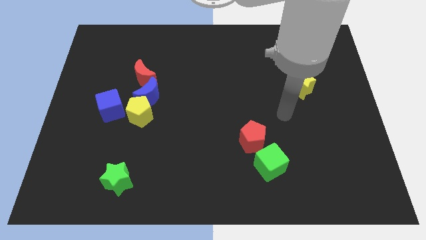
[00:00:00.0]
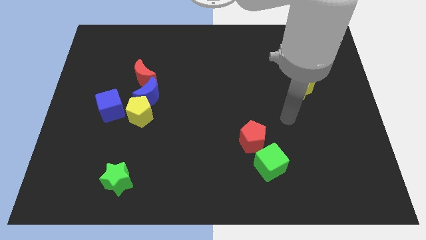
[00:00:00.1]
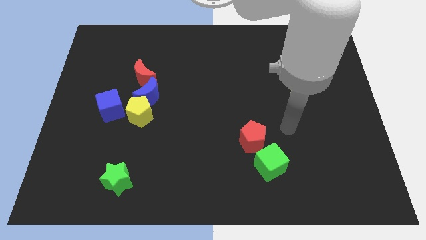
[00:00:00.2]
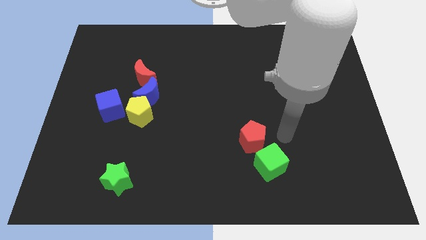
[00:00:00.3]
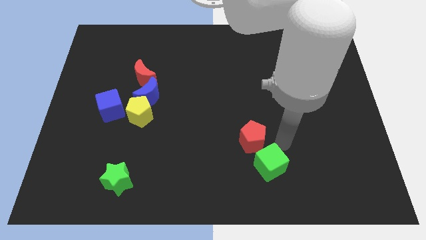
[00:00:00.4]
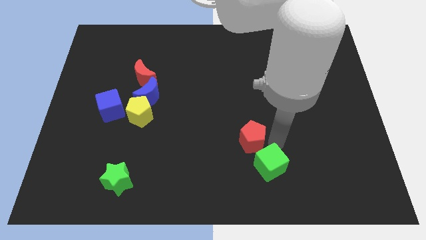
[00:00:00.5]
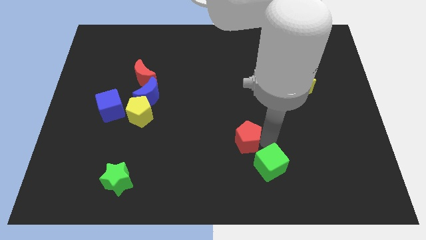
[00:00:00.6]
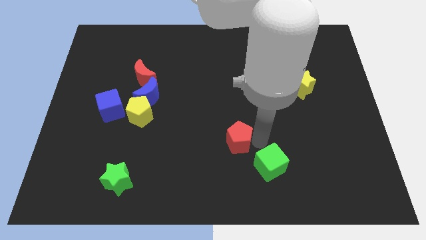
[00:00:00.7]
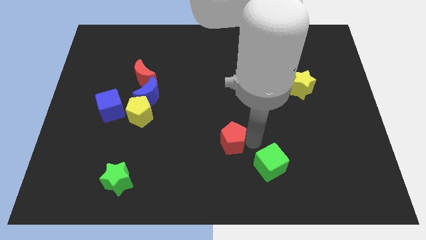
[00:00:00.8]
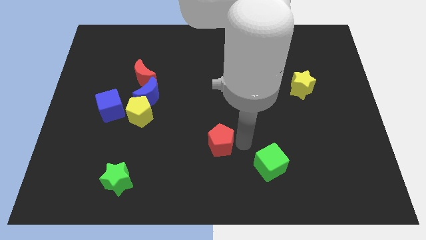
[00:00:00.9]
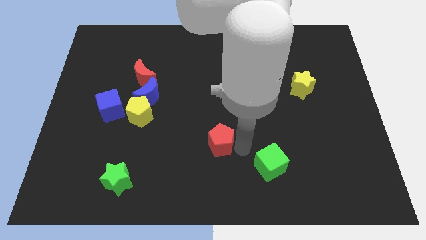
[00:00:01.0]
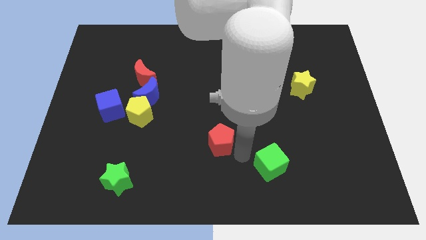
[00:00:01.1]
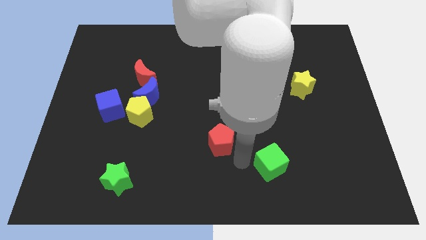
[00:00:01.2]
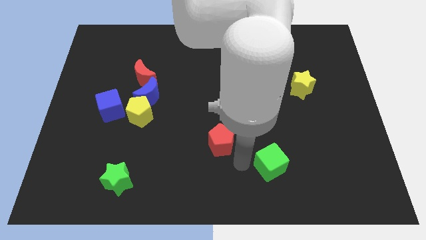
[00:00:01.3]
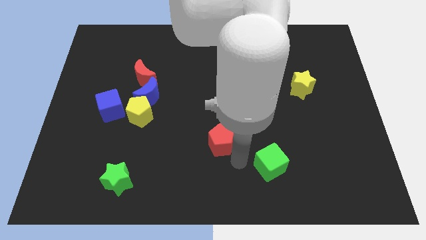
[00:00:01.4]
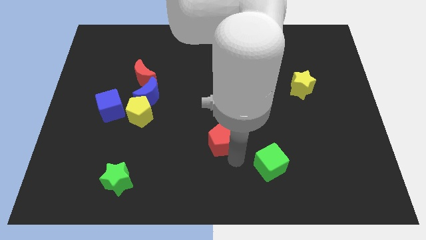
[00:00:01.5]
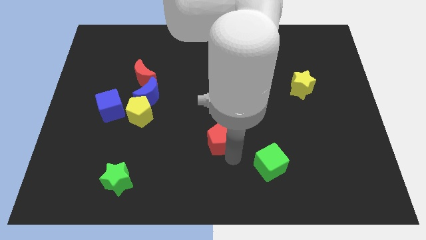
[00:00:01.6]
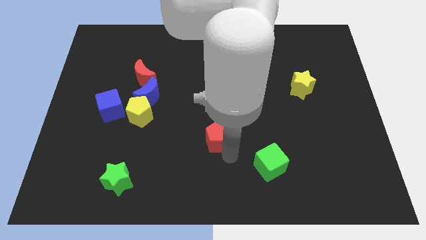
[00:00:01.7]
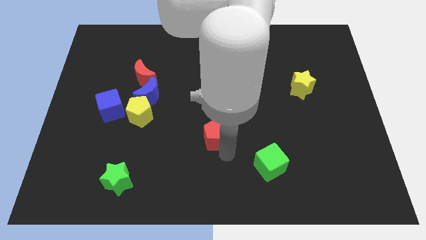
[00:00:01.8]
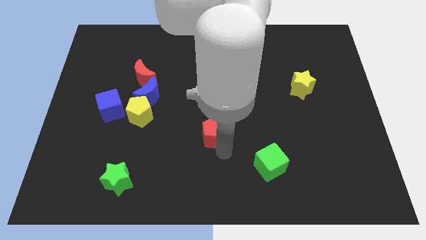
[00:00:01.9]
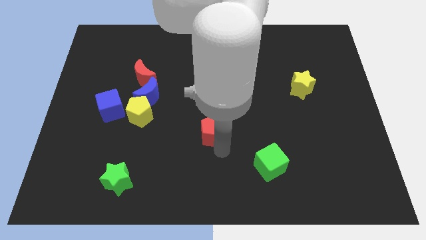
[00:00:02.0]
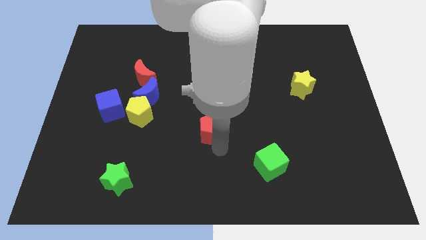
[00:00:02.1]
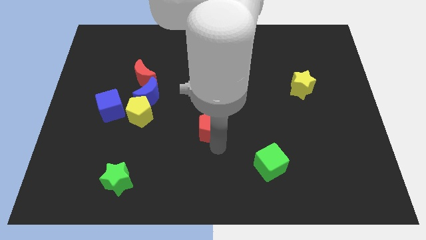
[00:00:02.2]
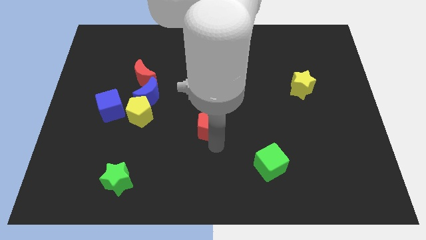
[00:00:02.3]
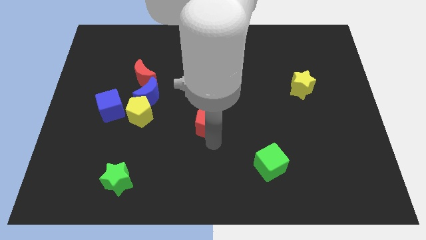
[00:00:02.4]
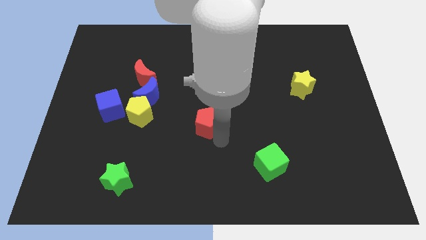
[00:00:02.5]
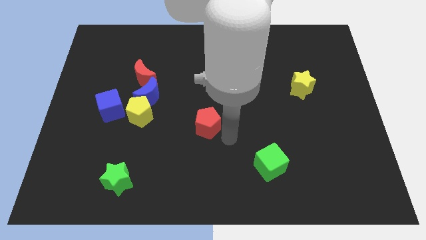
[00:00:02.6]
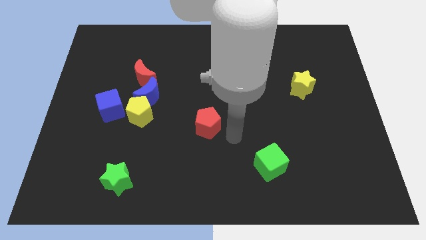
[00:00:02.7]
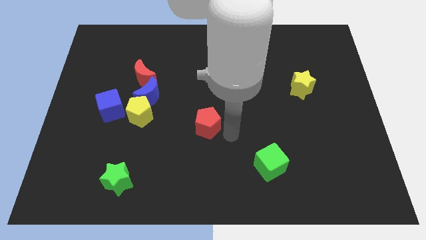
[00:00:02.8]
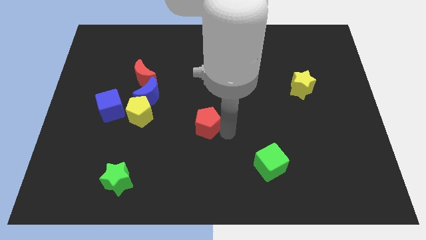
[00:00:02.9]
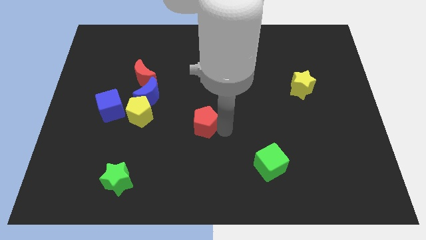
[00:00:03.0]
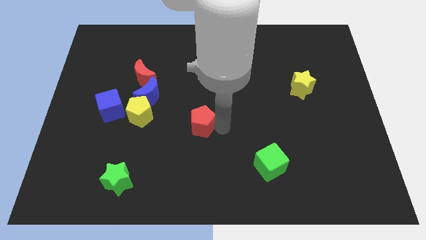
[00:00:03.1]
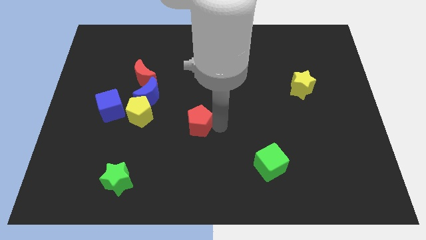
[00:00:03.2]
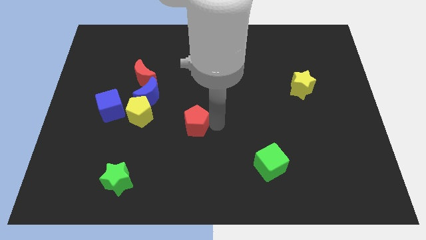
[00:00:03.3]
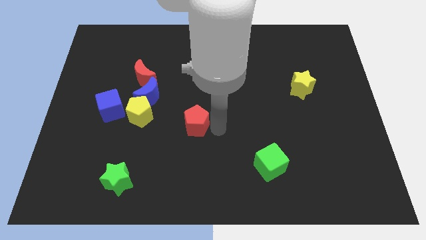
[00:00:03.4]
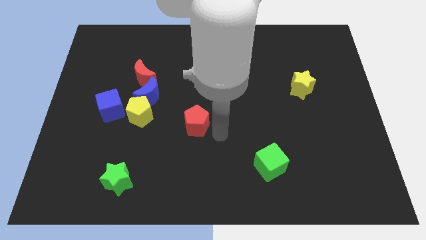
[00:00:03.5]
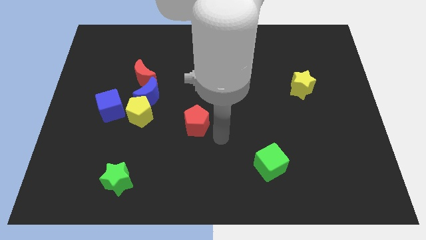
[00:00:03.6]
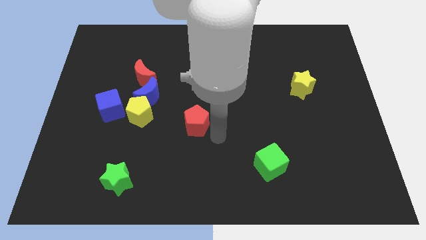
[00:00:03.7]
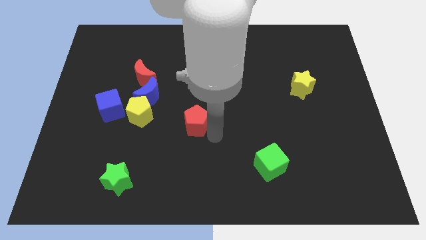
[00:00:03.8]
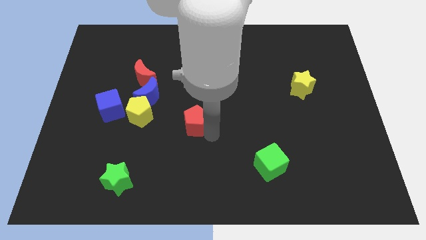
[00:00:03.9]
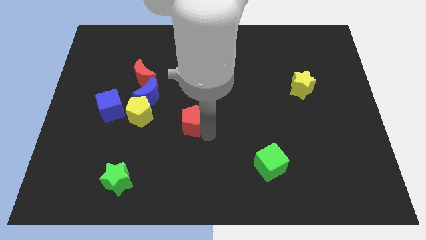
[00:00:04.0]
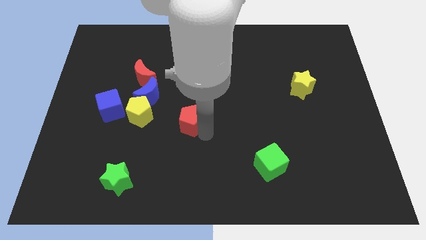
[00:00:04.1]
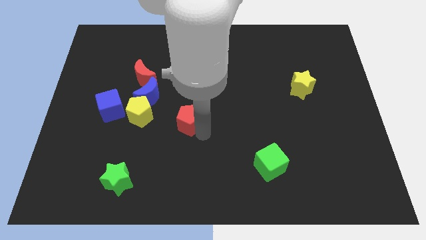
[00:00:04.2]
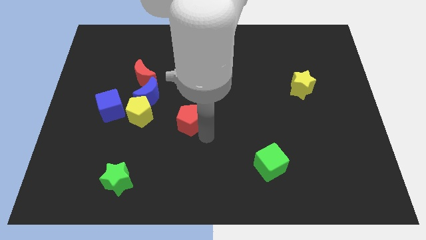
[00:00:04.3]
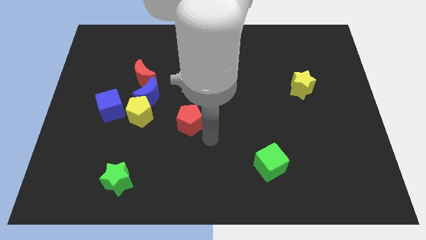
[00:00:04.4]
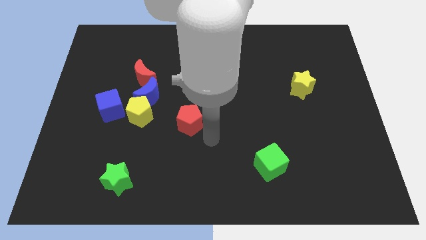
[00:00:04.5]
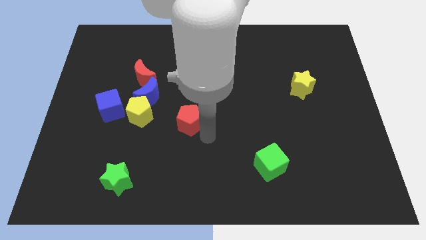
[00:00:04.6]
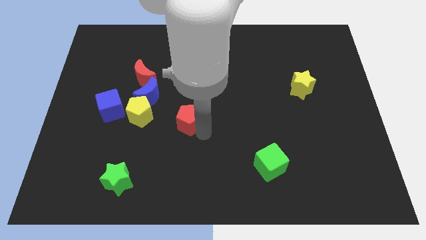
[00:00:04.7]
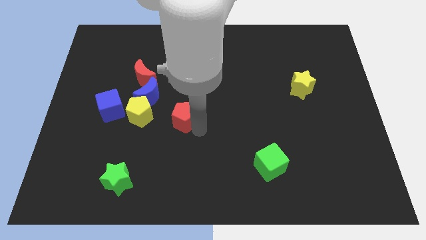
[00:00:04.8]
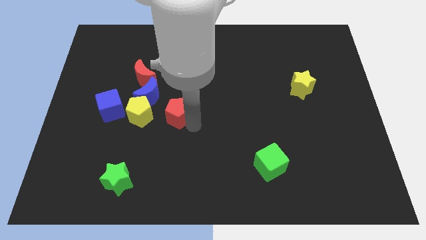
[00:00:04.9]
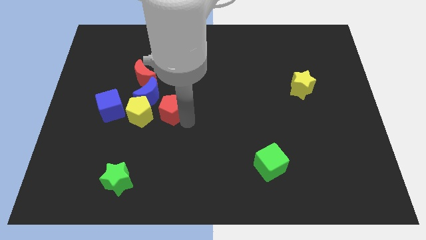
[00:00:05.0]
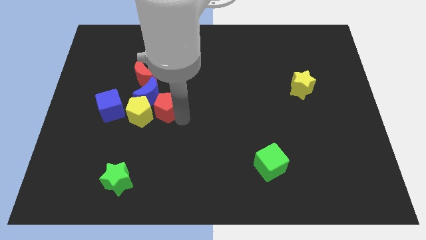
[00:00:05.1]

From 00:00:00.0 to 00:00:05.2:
push the red pentagon towards the blue moon

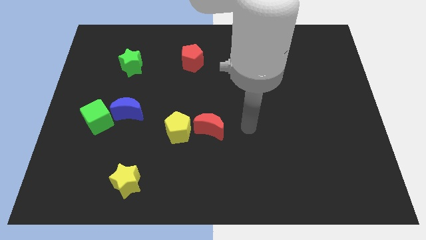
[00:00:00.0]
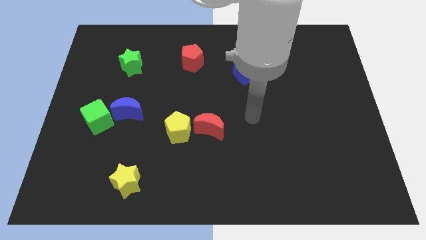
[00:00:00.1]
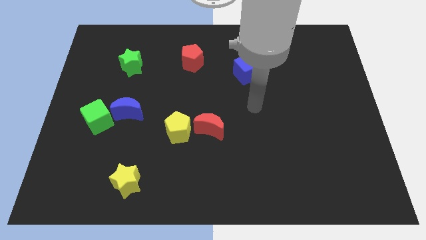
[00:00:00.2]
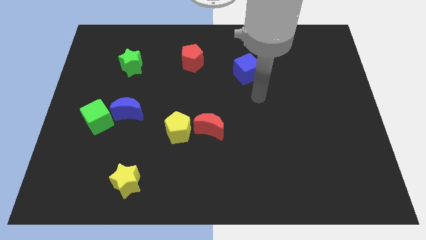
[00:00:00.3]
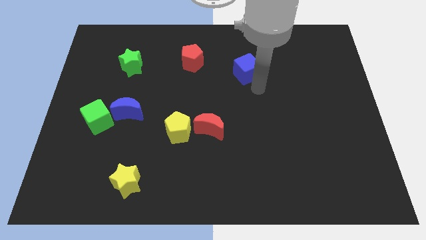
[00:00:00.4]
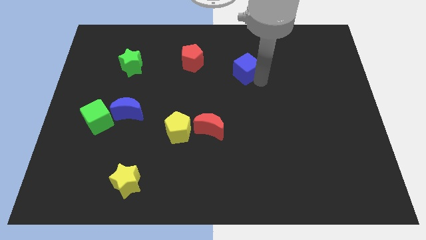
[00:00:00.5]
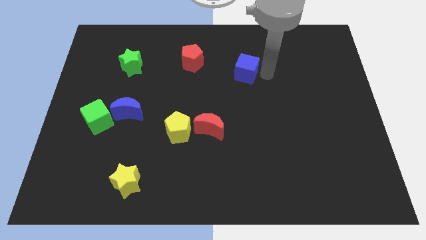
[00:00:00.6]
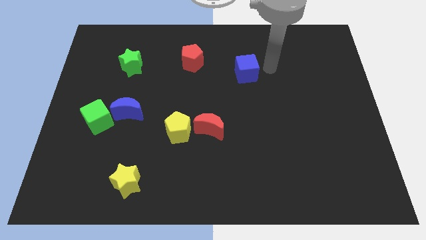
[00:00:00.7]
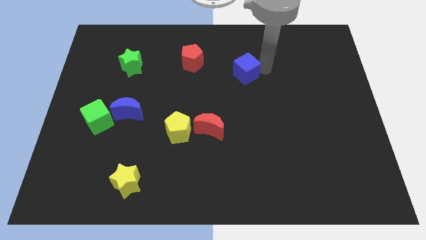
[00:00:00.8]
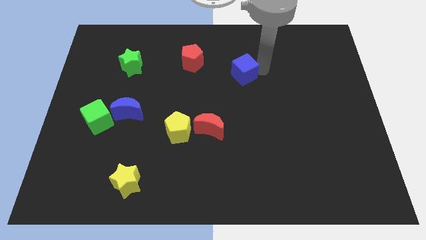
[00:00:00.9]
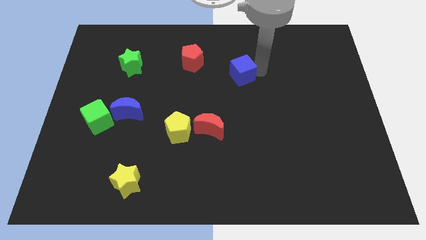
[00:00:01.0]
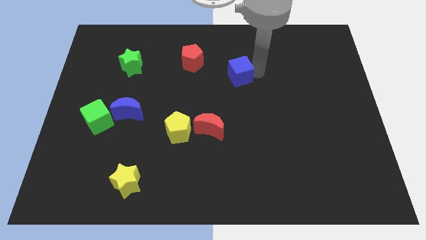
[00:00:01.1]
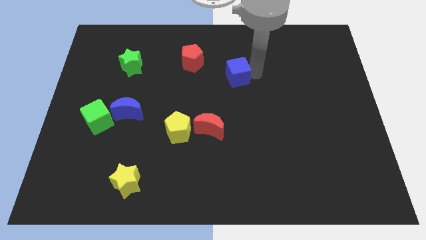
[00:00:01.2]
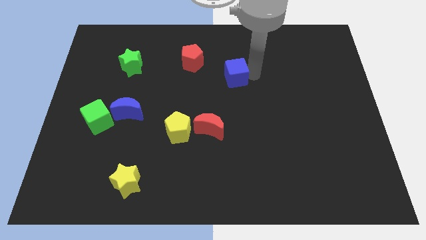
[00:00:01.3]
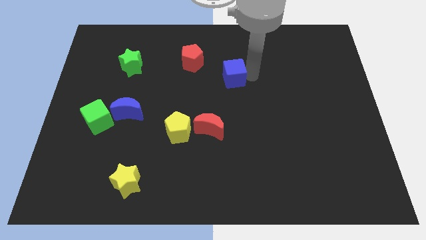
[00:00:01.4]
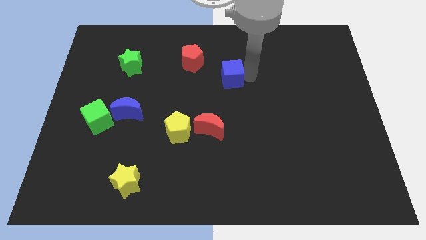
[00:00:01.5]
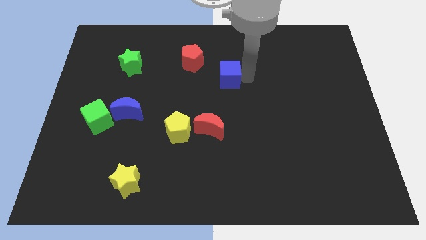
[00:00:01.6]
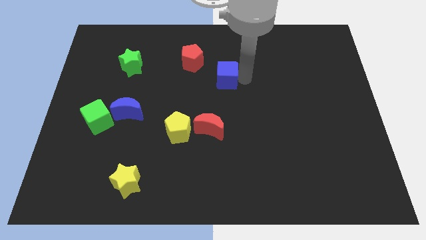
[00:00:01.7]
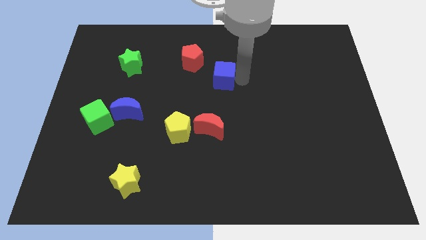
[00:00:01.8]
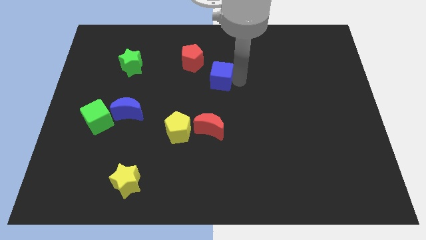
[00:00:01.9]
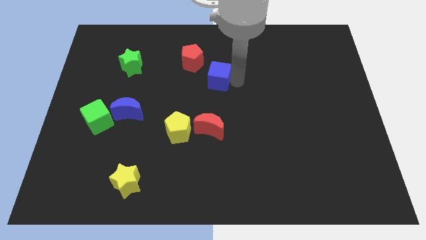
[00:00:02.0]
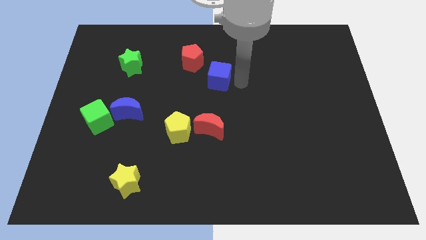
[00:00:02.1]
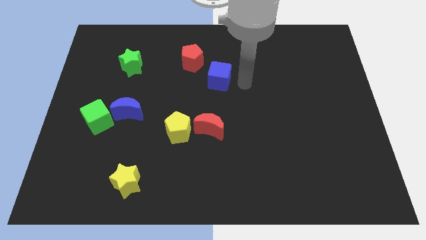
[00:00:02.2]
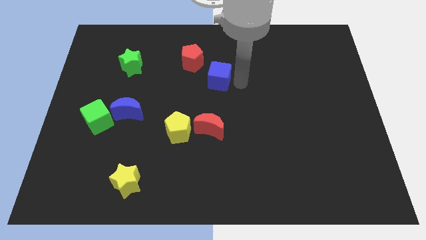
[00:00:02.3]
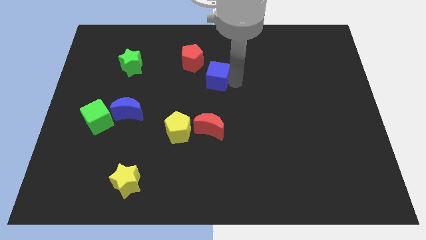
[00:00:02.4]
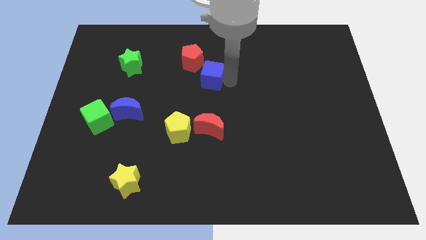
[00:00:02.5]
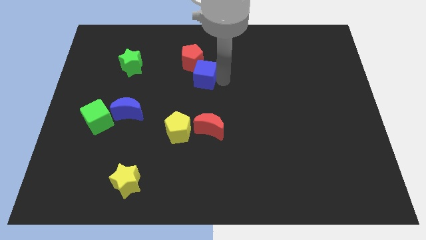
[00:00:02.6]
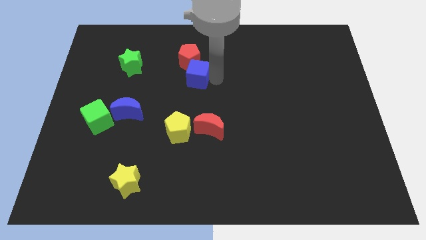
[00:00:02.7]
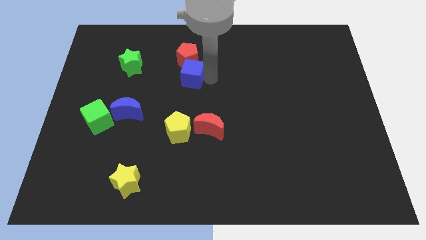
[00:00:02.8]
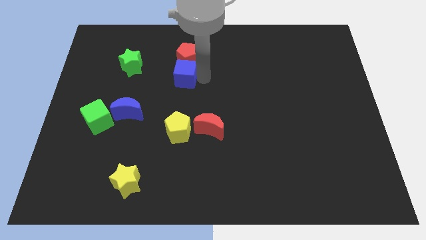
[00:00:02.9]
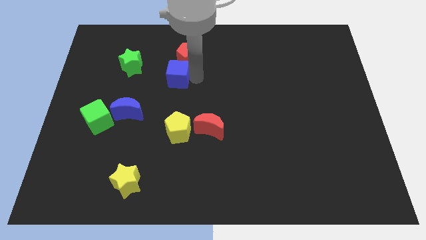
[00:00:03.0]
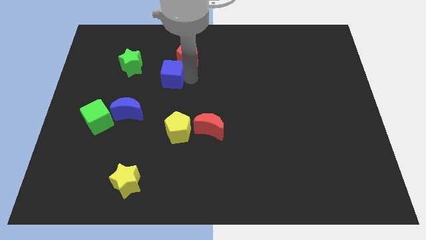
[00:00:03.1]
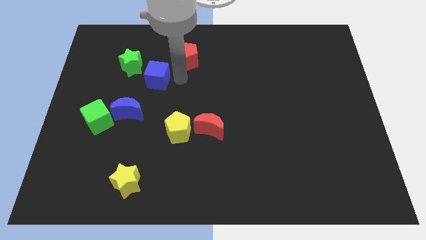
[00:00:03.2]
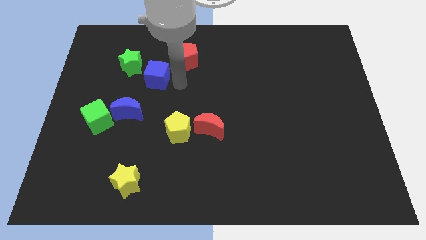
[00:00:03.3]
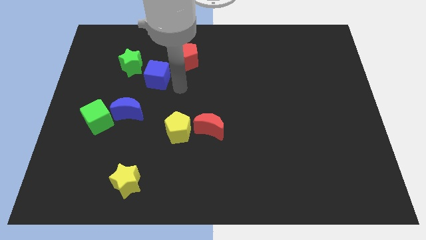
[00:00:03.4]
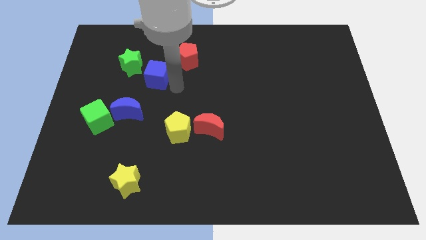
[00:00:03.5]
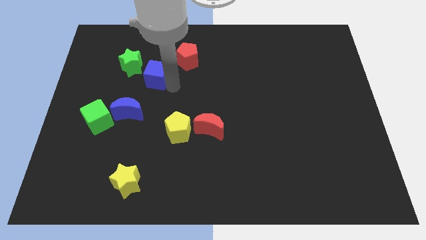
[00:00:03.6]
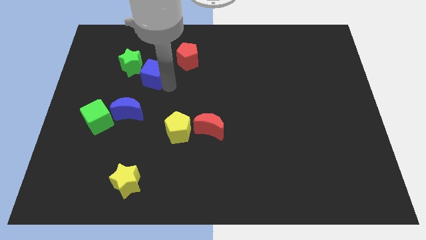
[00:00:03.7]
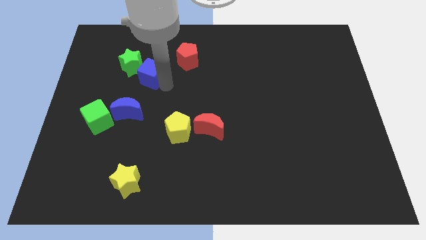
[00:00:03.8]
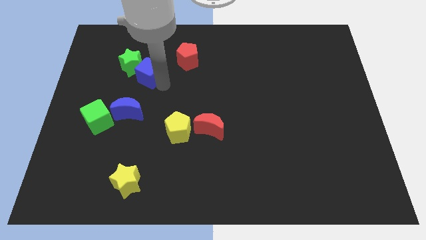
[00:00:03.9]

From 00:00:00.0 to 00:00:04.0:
put the blue cube to the green star
